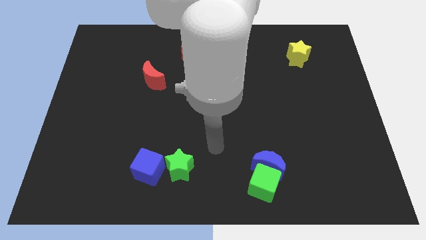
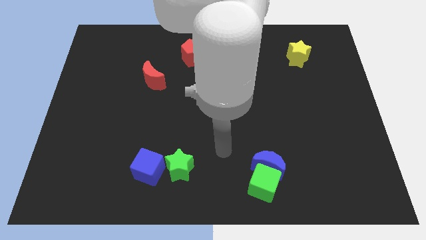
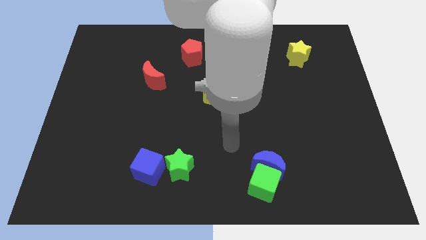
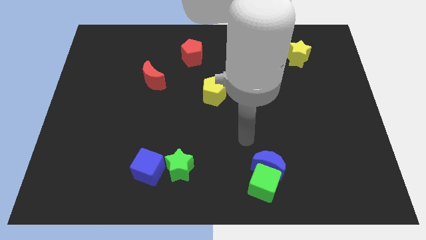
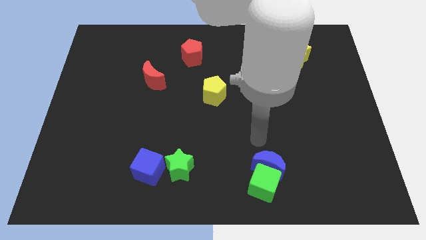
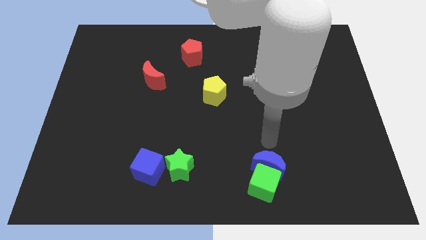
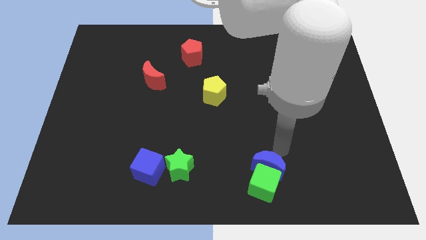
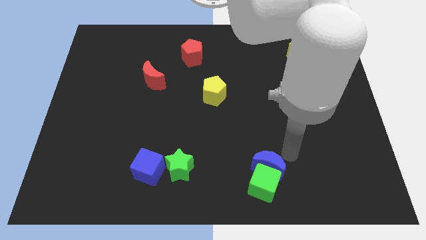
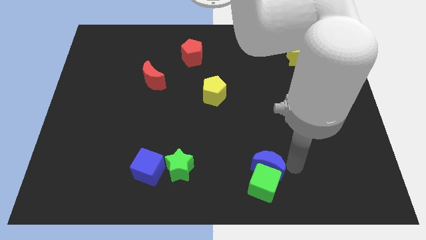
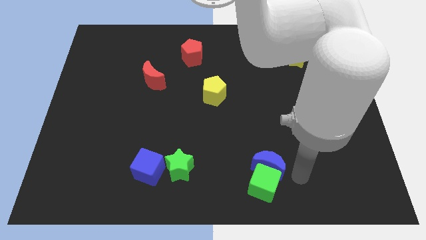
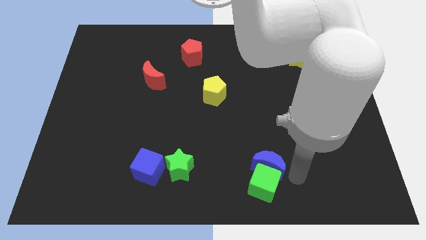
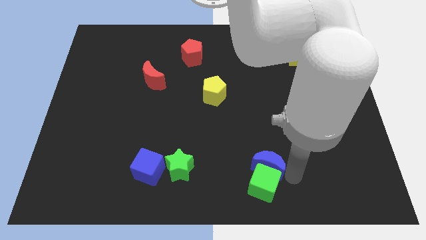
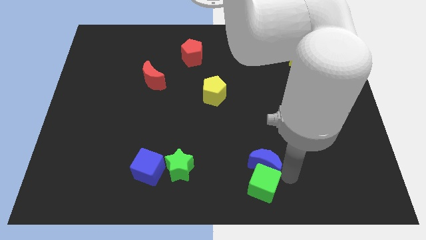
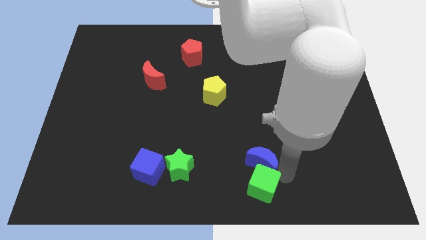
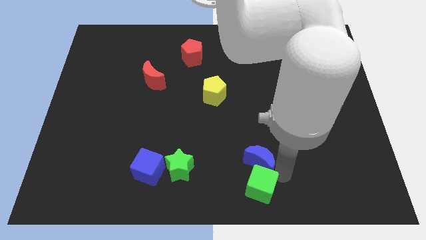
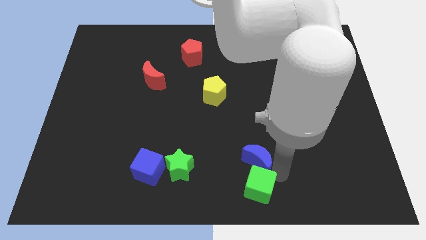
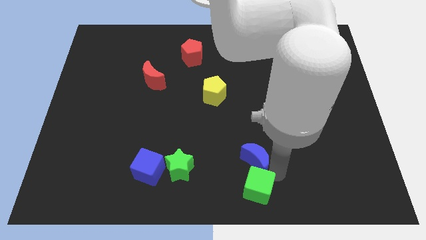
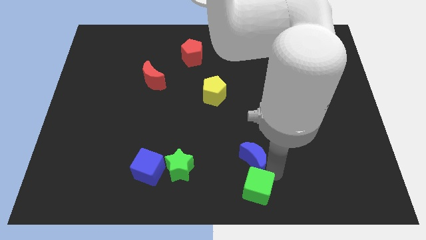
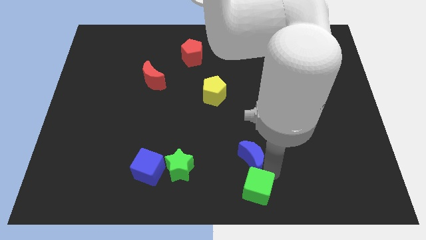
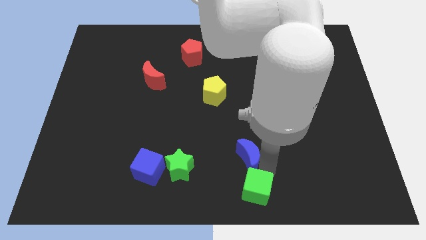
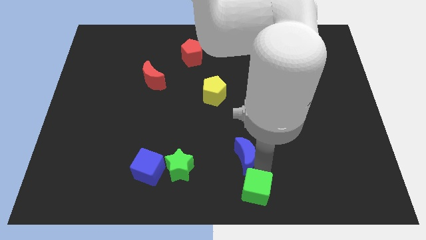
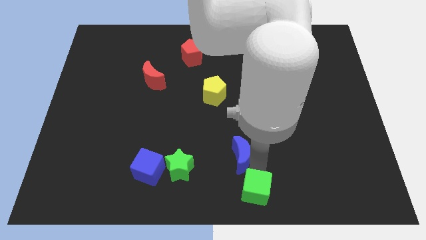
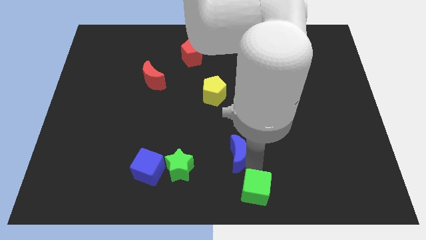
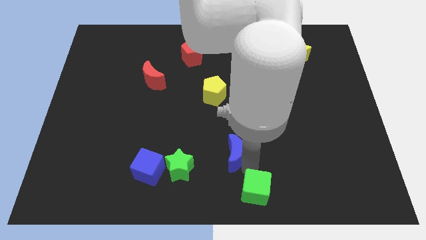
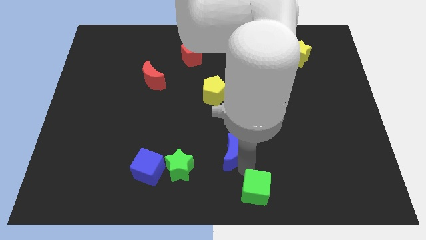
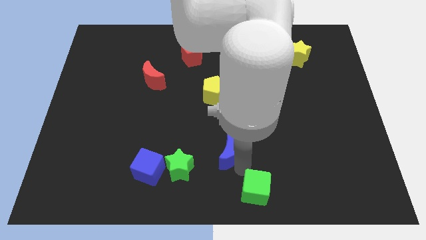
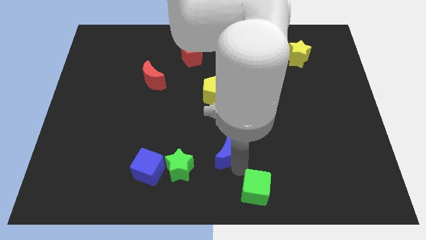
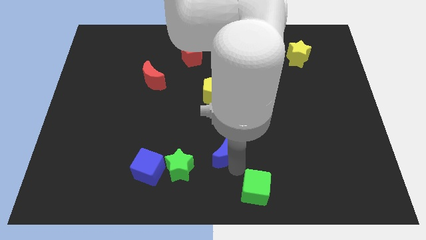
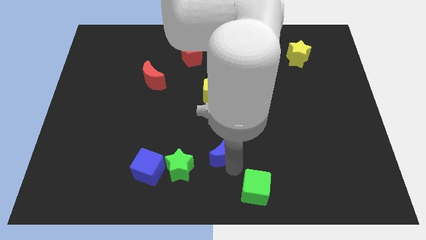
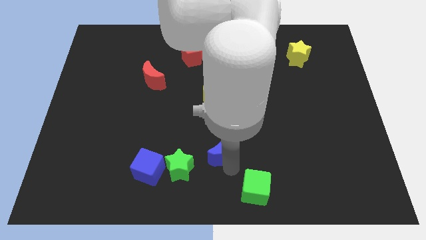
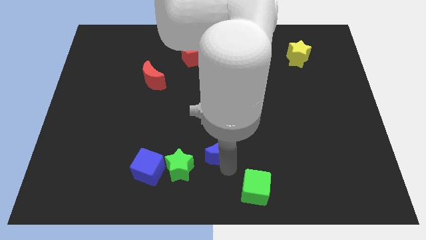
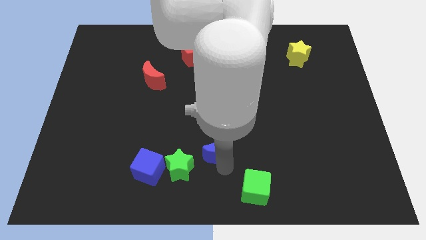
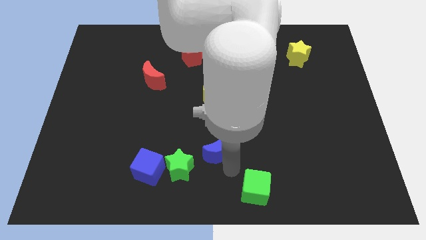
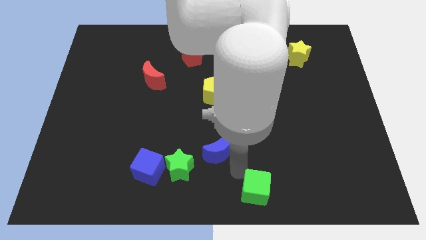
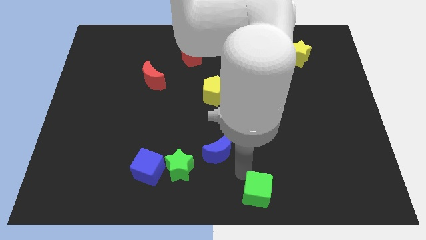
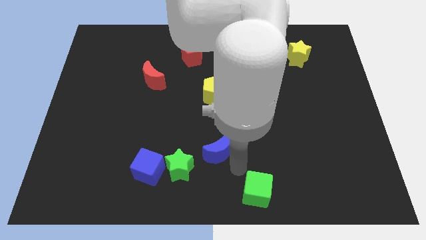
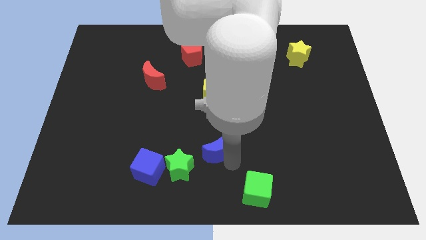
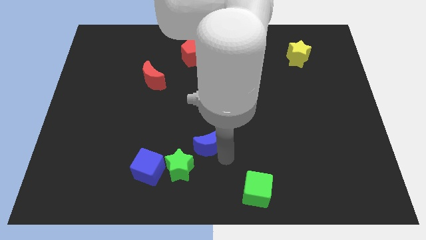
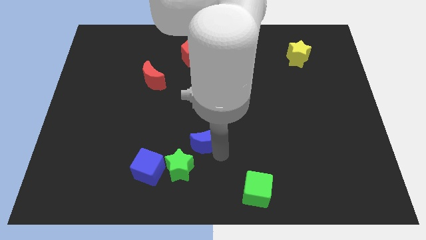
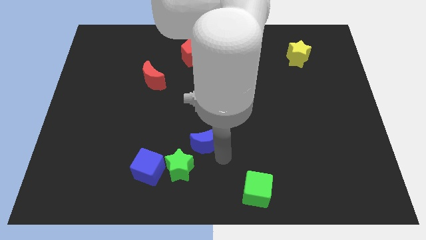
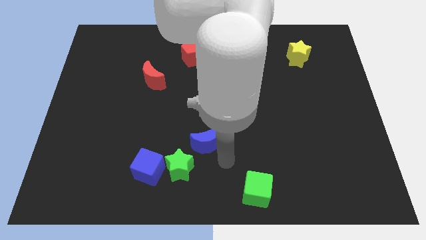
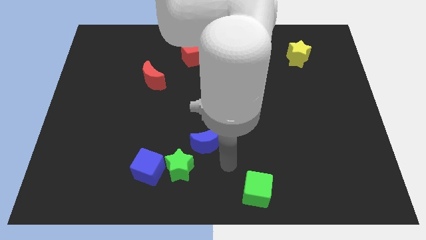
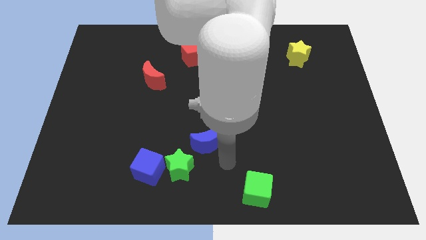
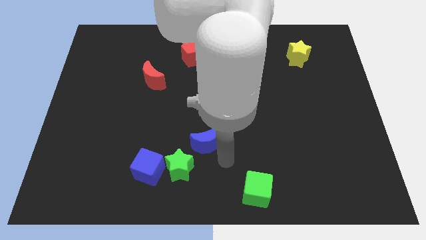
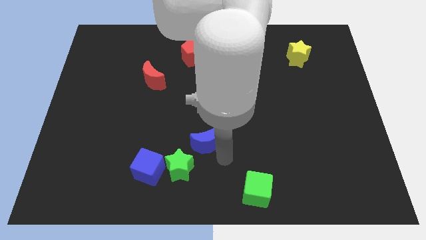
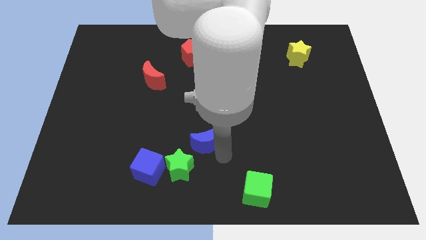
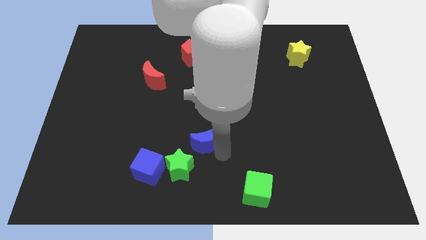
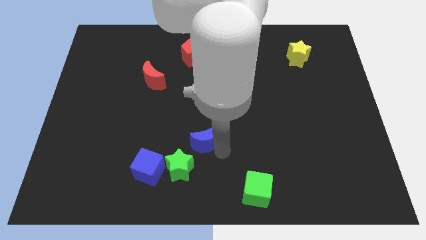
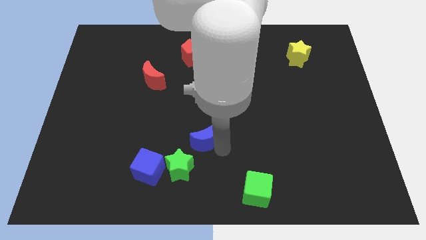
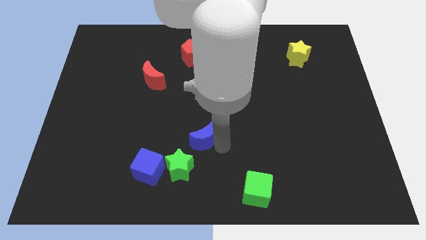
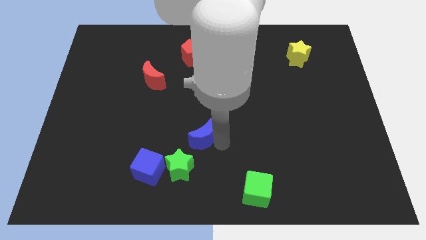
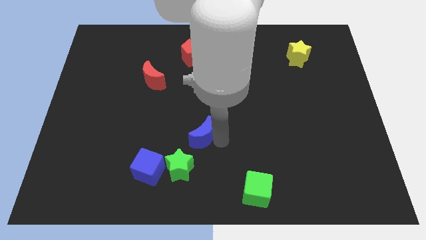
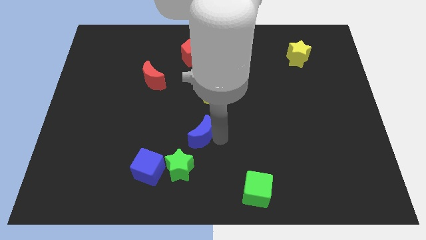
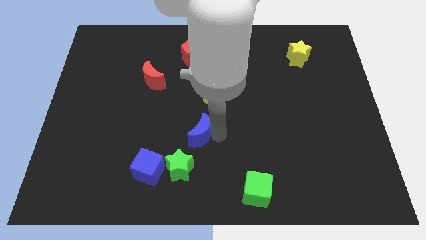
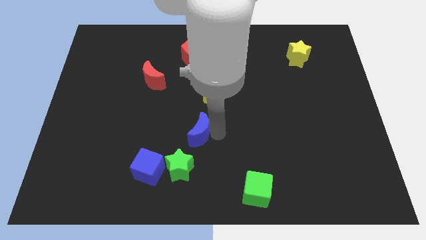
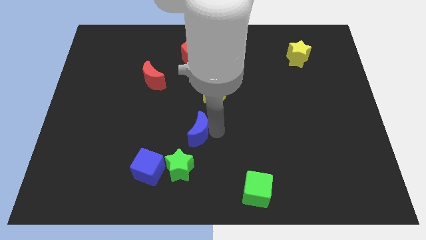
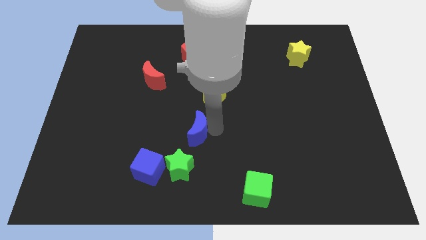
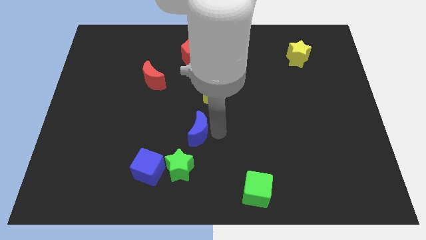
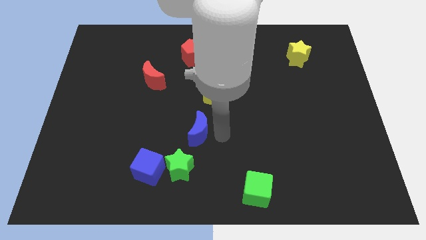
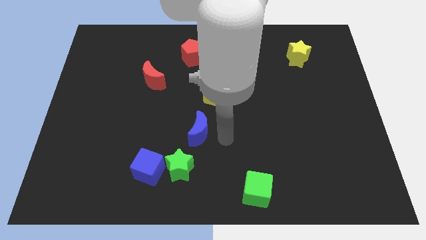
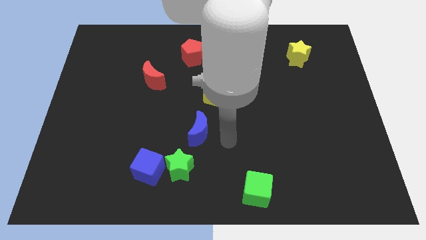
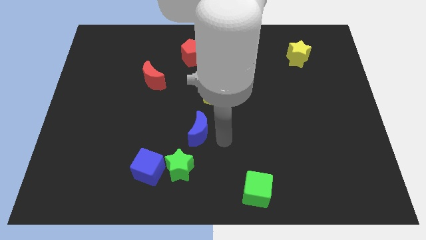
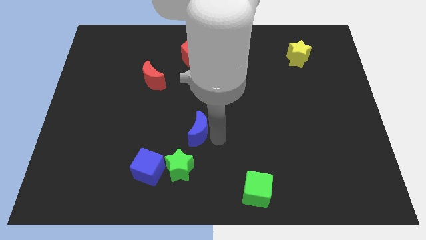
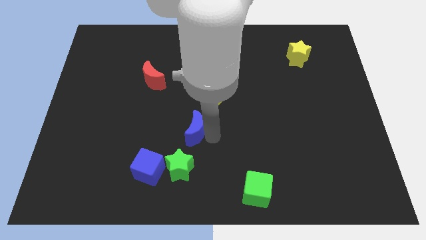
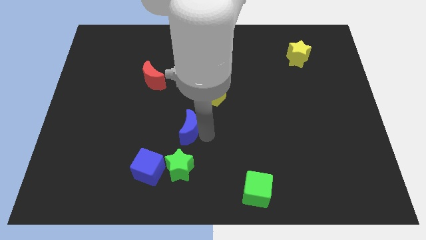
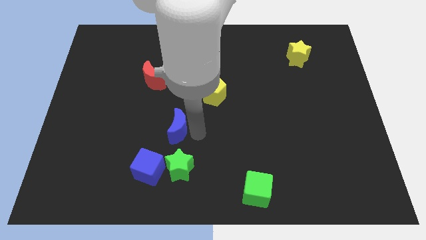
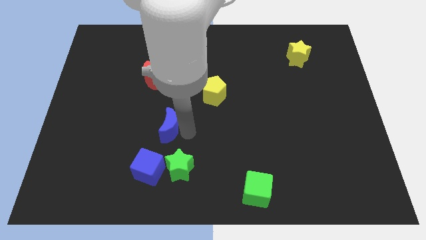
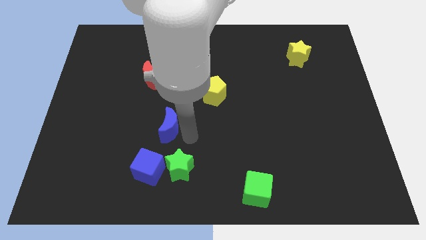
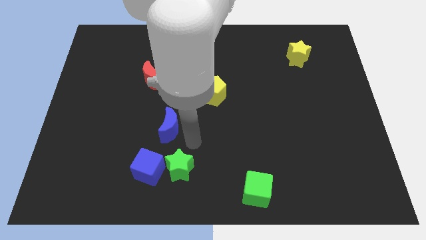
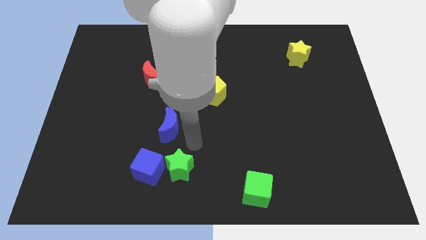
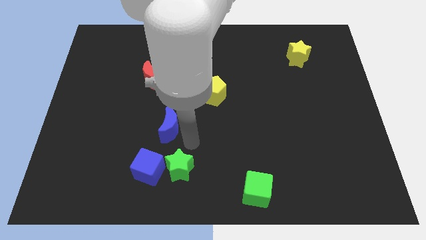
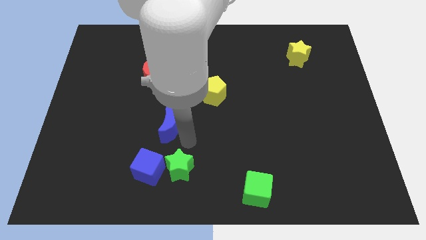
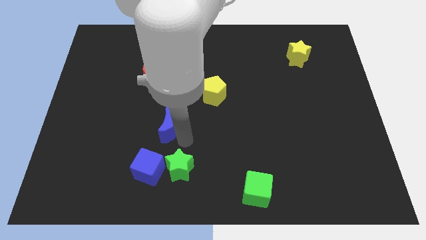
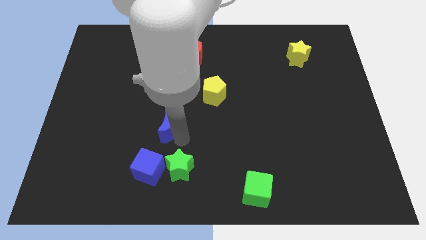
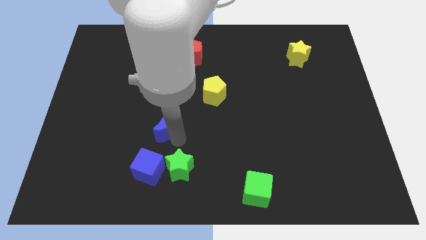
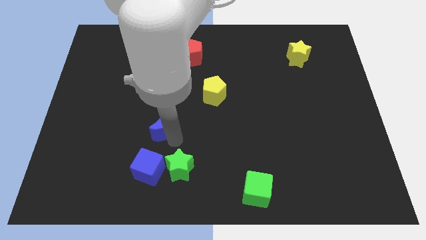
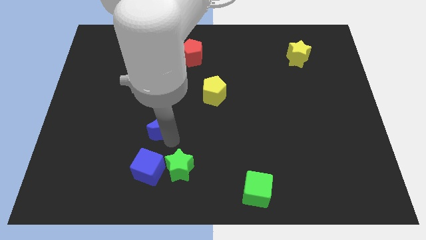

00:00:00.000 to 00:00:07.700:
put the blue moon below the red moon
